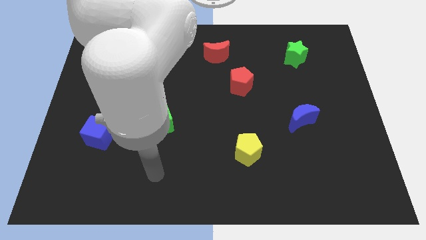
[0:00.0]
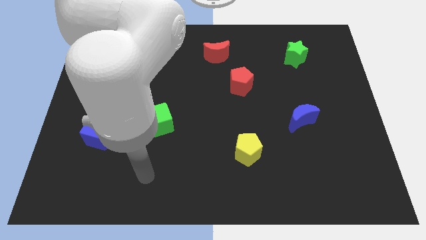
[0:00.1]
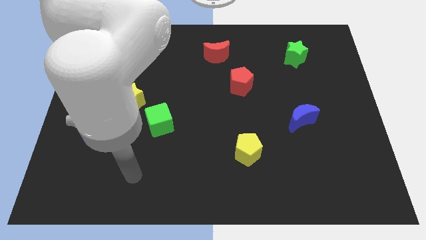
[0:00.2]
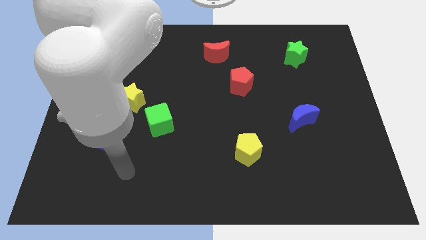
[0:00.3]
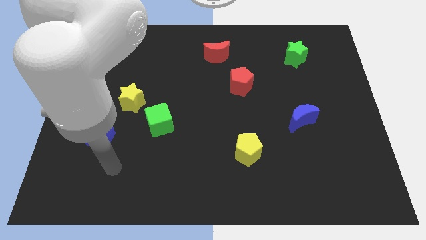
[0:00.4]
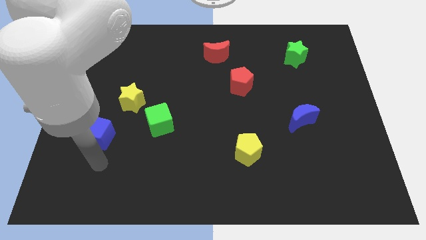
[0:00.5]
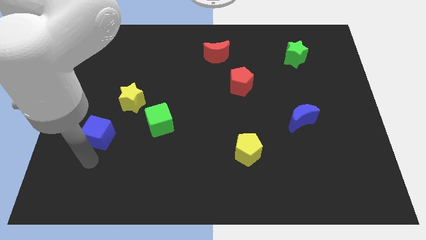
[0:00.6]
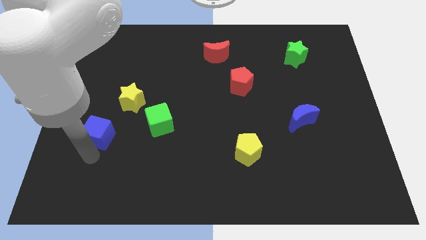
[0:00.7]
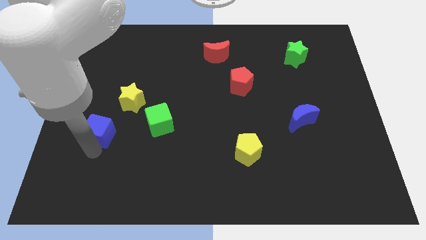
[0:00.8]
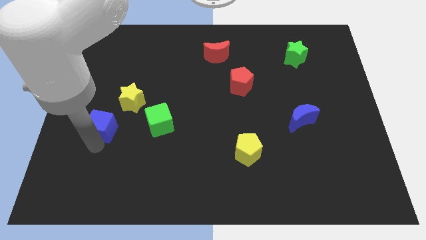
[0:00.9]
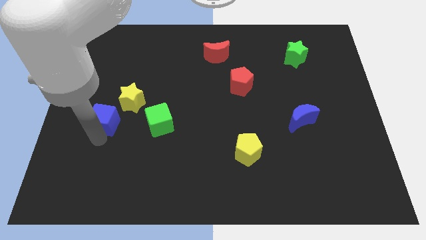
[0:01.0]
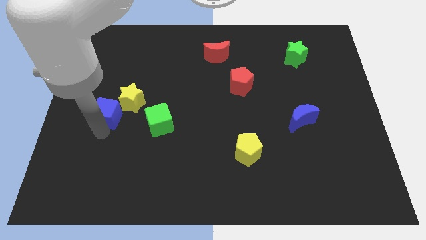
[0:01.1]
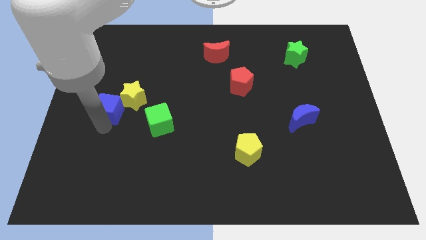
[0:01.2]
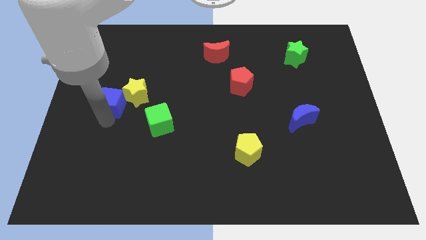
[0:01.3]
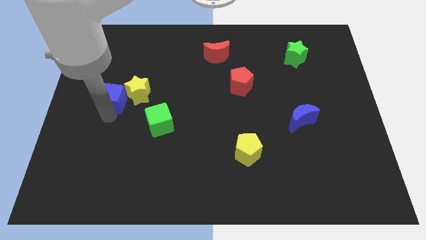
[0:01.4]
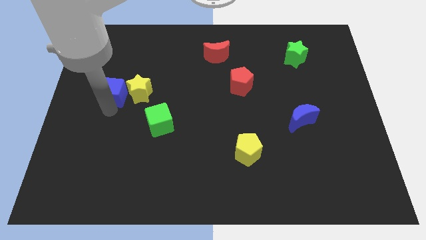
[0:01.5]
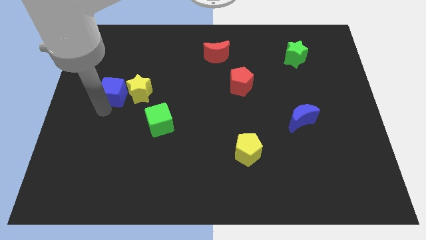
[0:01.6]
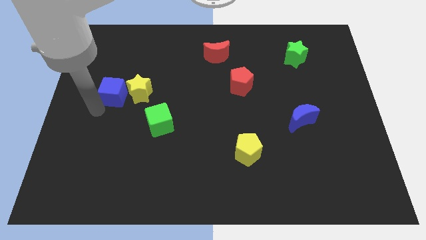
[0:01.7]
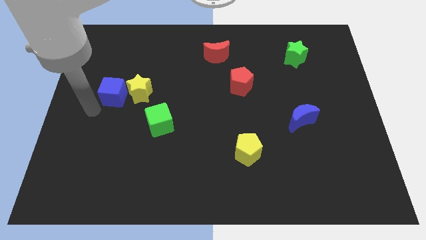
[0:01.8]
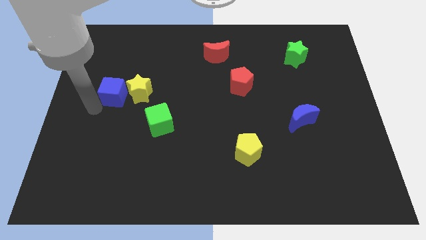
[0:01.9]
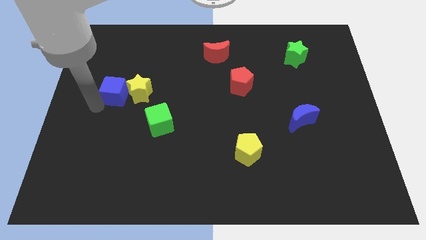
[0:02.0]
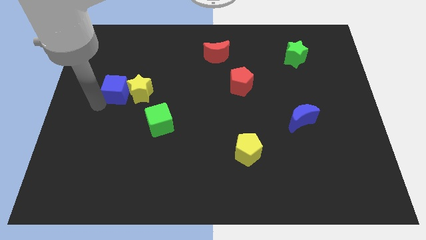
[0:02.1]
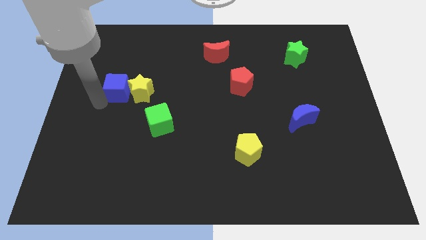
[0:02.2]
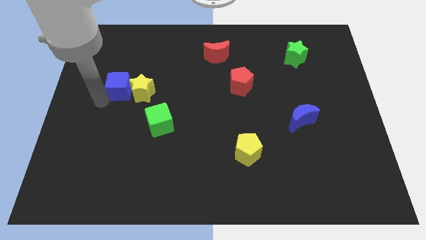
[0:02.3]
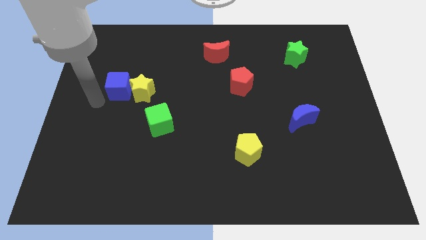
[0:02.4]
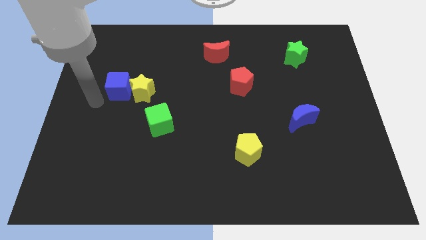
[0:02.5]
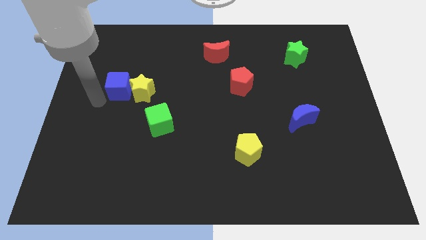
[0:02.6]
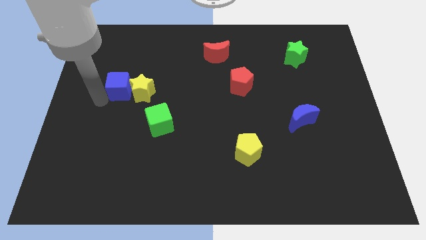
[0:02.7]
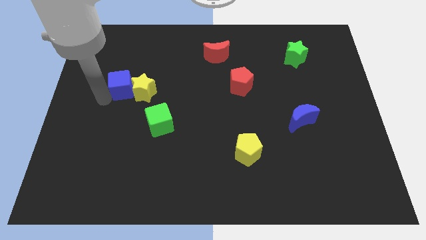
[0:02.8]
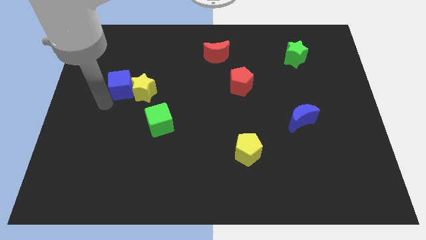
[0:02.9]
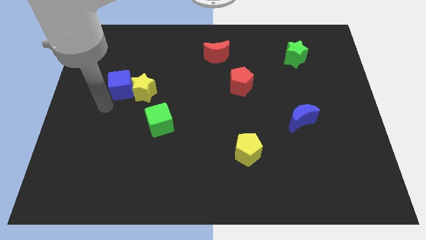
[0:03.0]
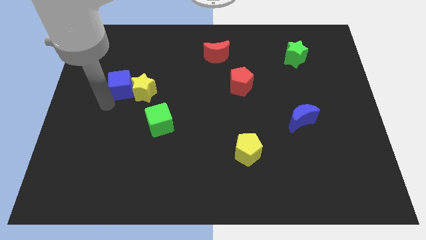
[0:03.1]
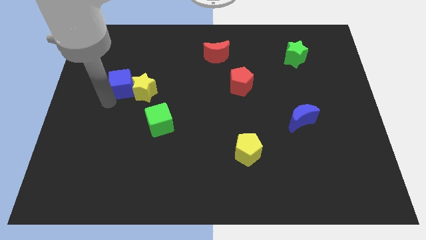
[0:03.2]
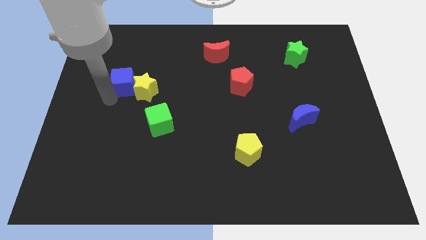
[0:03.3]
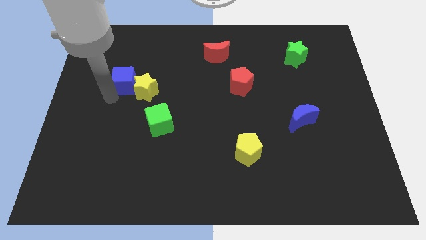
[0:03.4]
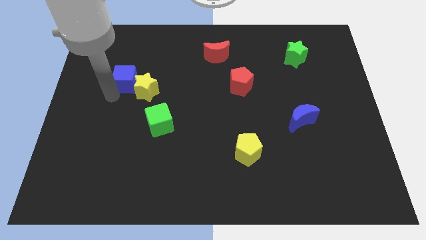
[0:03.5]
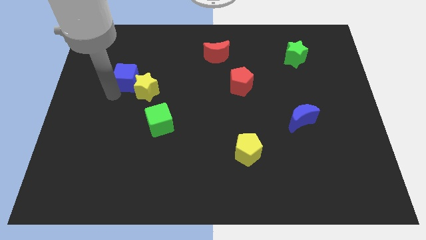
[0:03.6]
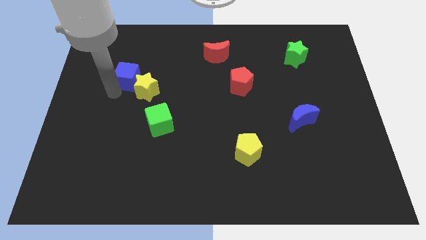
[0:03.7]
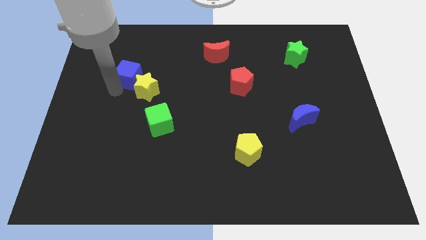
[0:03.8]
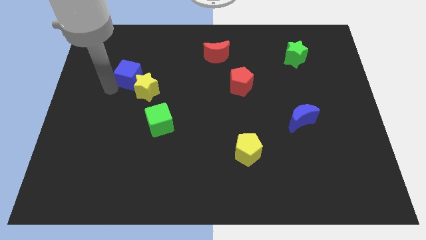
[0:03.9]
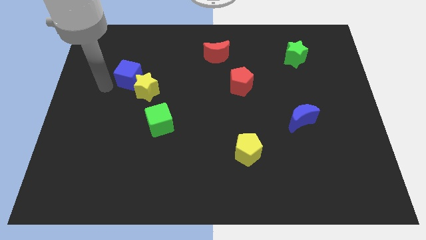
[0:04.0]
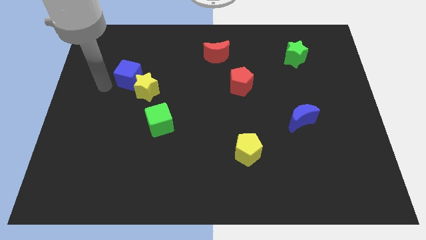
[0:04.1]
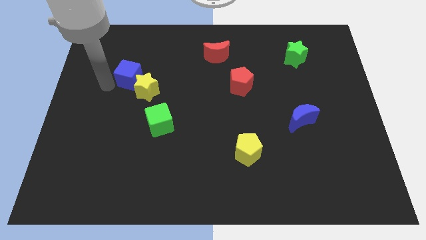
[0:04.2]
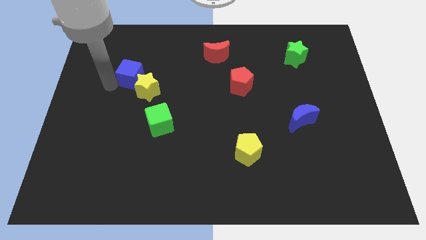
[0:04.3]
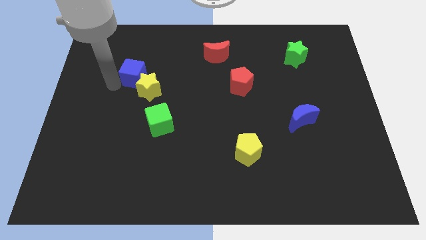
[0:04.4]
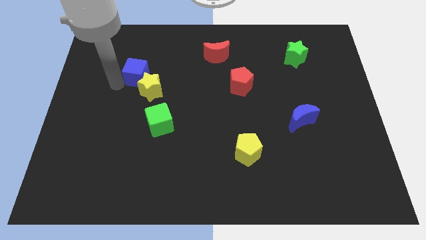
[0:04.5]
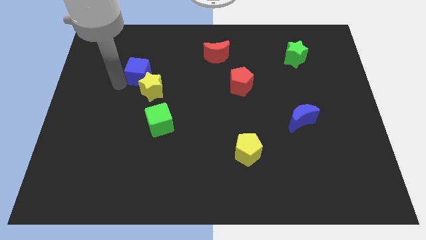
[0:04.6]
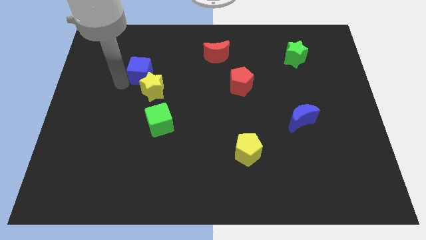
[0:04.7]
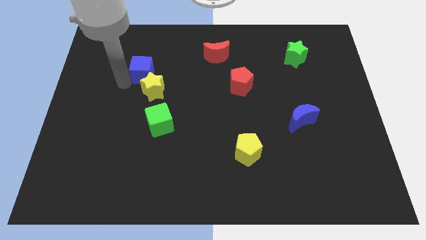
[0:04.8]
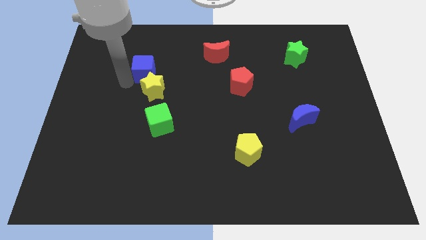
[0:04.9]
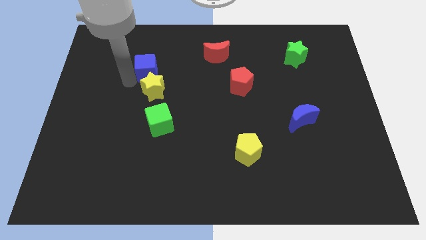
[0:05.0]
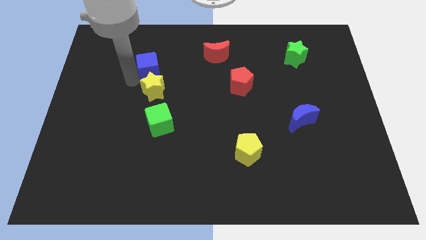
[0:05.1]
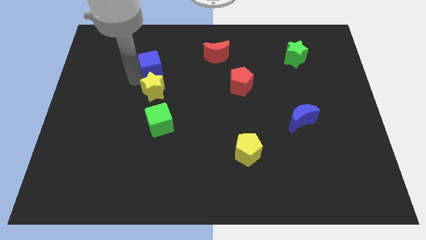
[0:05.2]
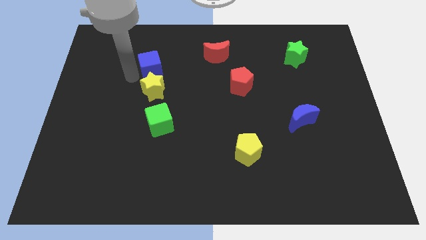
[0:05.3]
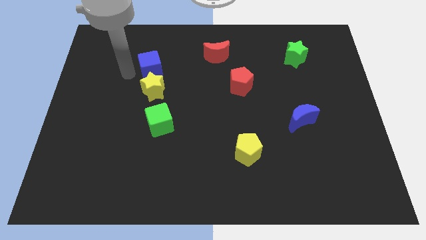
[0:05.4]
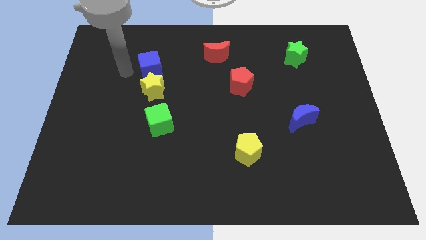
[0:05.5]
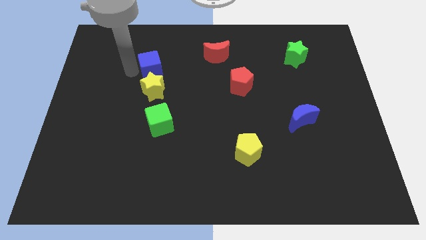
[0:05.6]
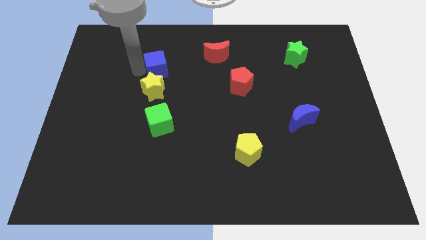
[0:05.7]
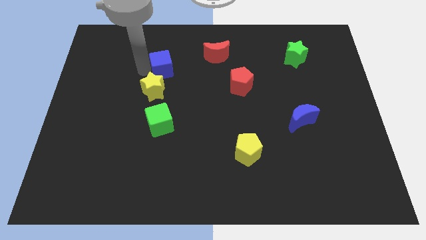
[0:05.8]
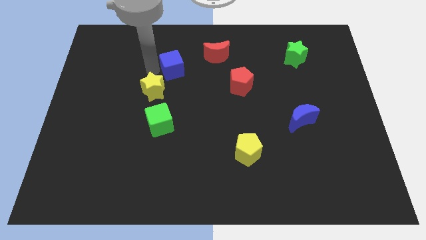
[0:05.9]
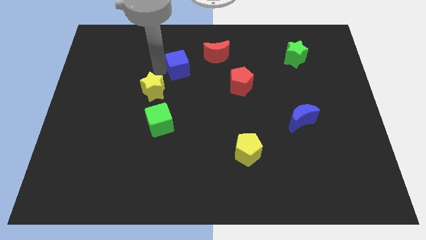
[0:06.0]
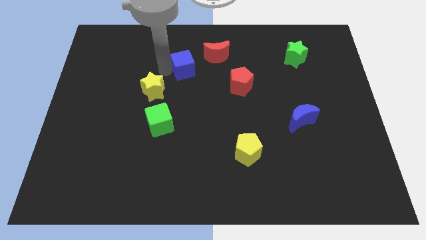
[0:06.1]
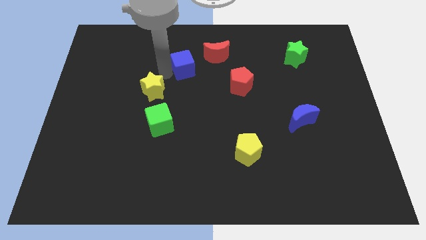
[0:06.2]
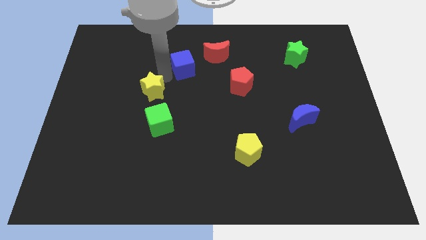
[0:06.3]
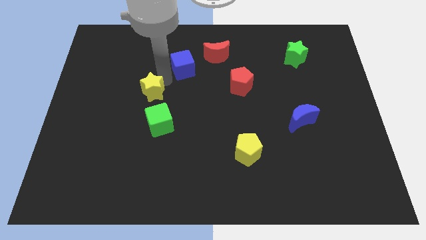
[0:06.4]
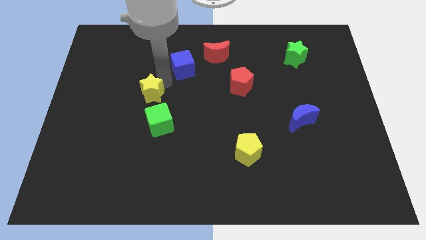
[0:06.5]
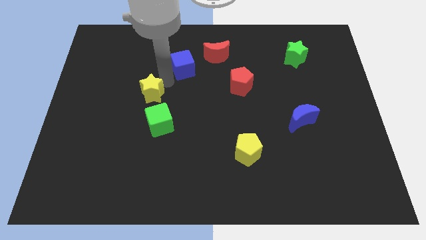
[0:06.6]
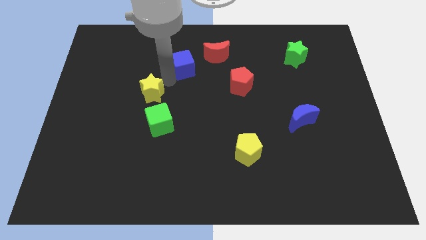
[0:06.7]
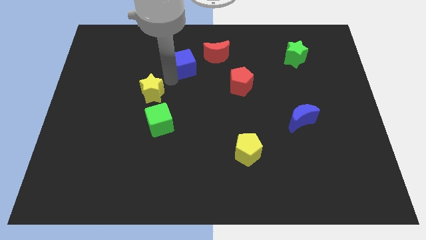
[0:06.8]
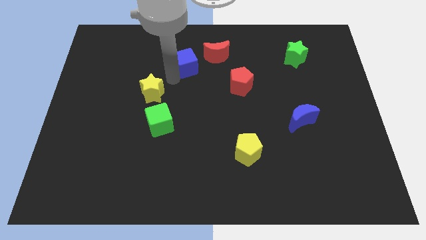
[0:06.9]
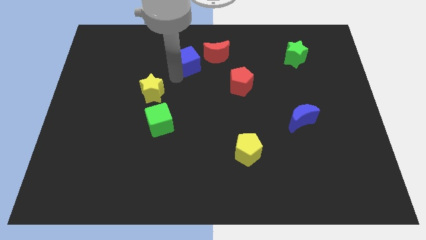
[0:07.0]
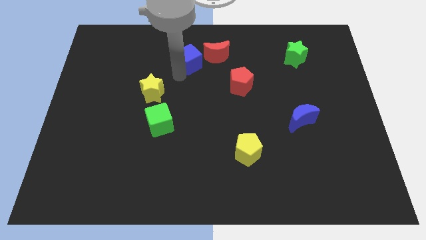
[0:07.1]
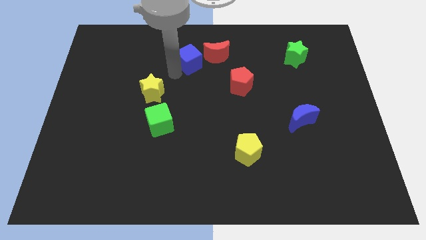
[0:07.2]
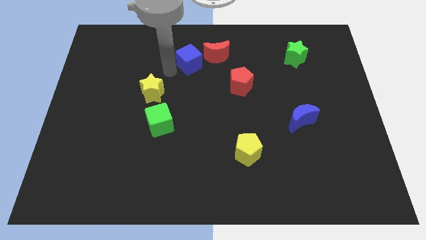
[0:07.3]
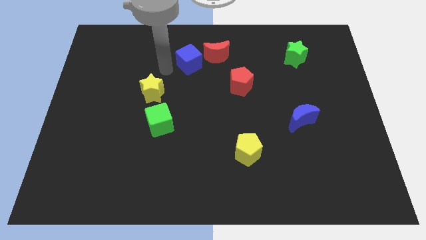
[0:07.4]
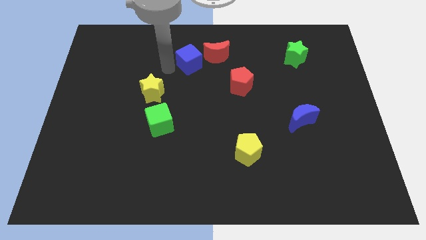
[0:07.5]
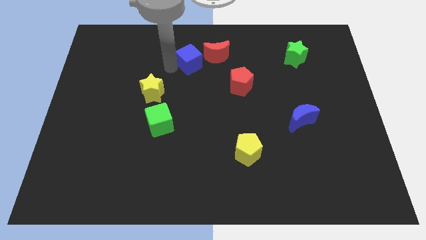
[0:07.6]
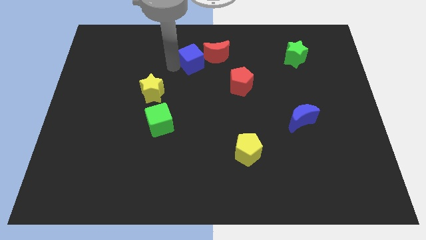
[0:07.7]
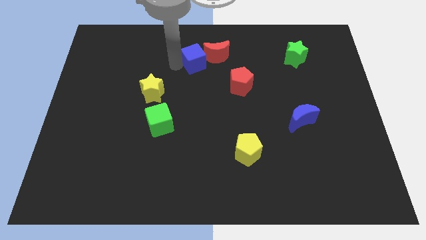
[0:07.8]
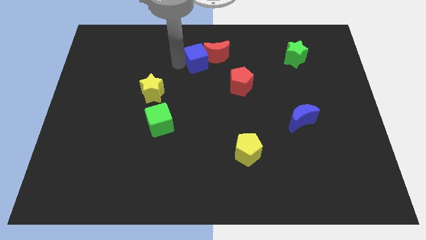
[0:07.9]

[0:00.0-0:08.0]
move the blue cube to the red moon

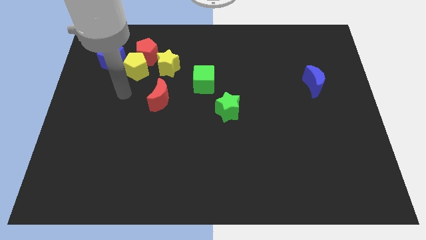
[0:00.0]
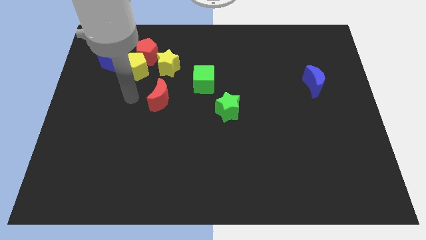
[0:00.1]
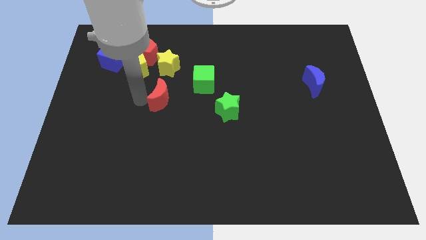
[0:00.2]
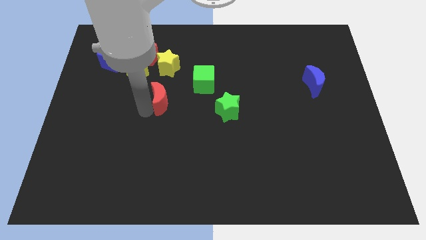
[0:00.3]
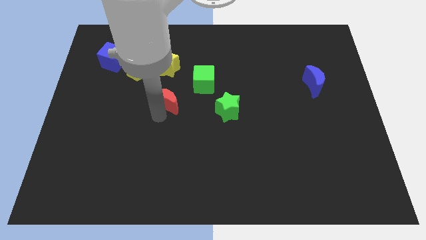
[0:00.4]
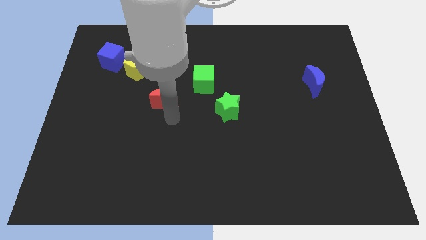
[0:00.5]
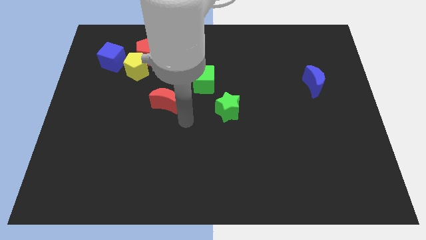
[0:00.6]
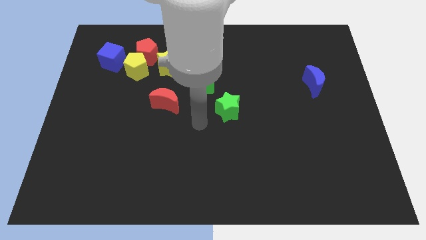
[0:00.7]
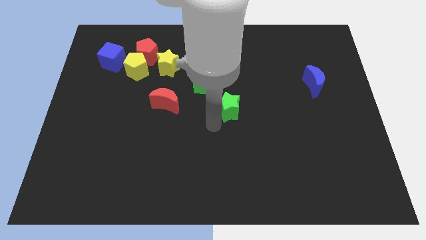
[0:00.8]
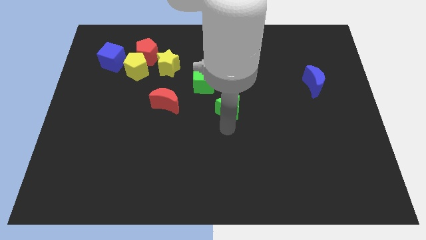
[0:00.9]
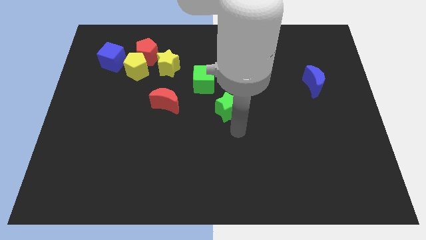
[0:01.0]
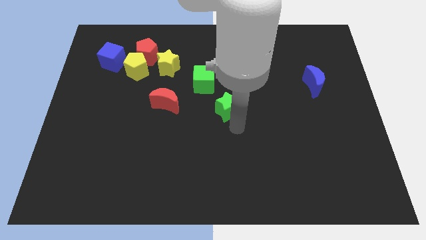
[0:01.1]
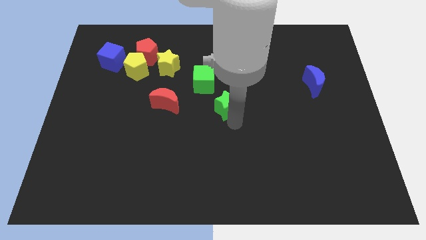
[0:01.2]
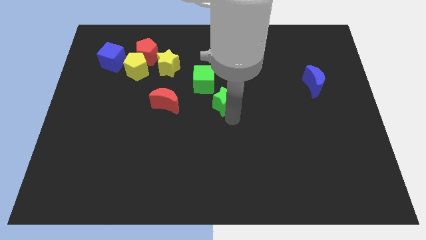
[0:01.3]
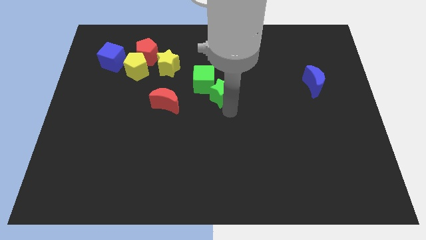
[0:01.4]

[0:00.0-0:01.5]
push the green star close to the green cube
